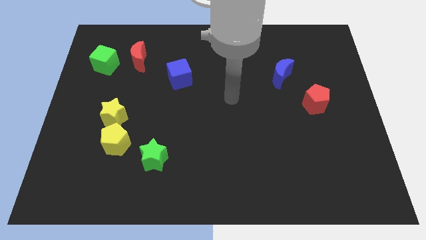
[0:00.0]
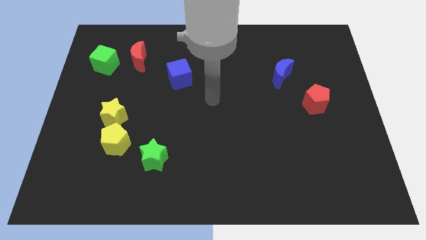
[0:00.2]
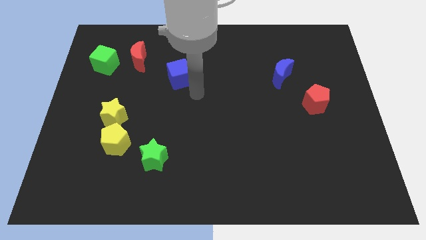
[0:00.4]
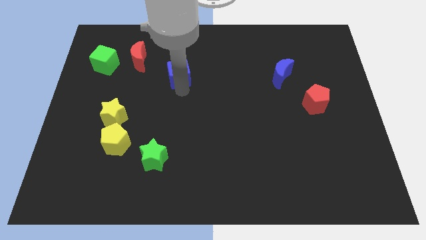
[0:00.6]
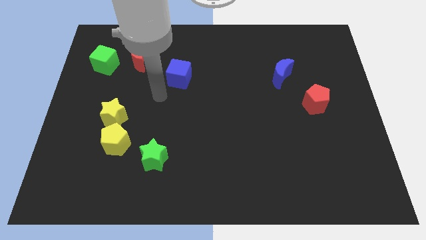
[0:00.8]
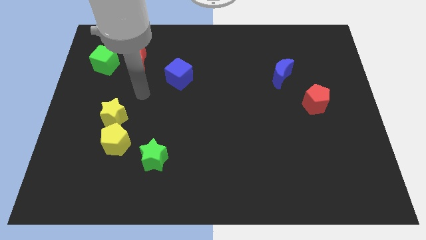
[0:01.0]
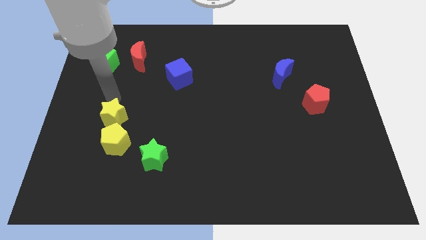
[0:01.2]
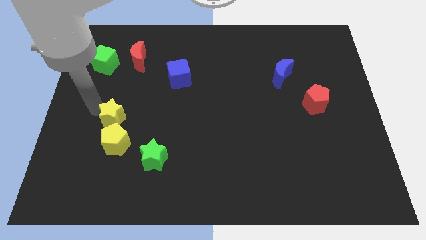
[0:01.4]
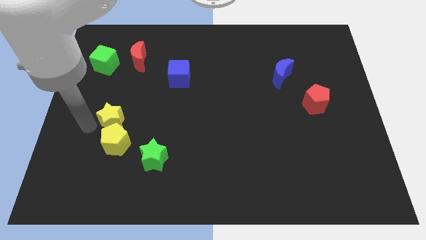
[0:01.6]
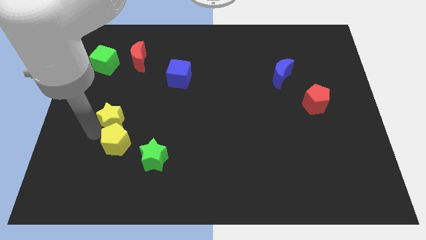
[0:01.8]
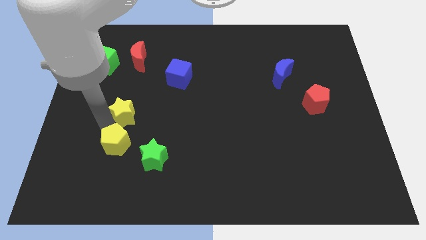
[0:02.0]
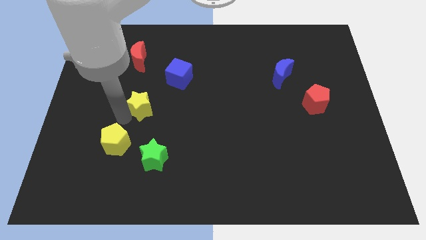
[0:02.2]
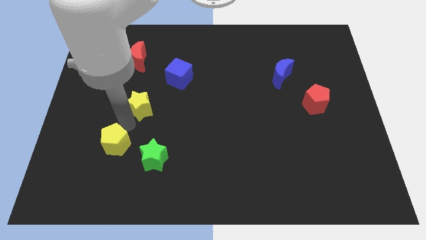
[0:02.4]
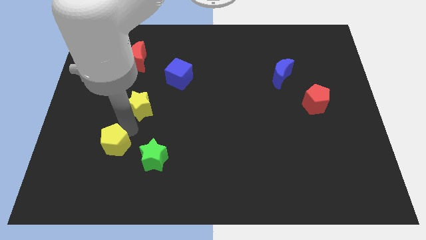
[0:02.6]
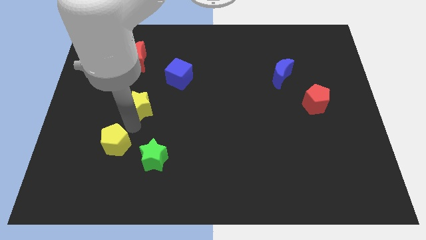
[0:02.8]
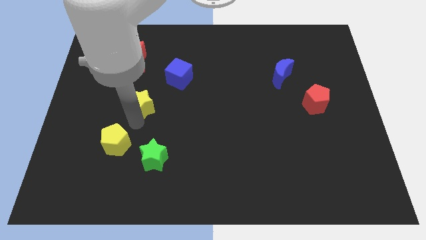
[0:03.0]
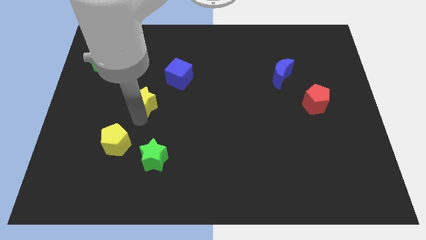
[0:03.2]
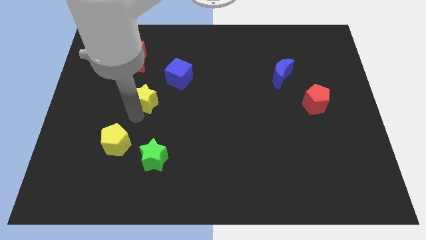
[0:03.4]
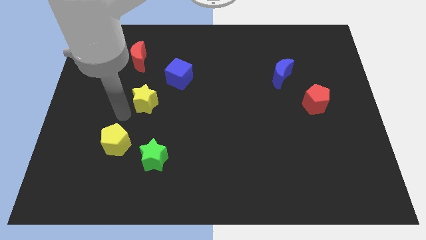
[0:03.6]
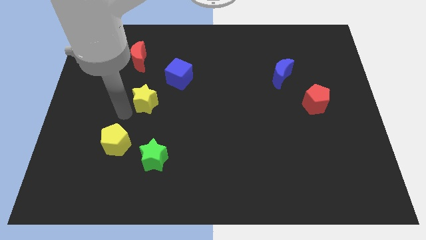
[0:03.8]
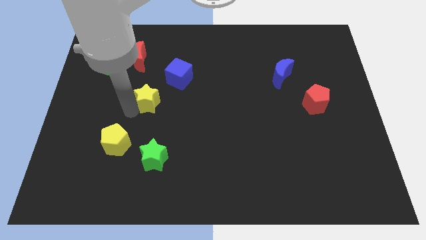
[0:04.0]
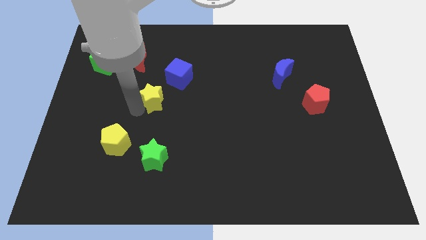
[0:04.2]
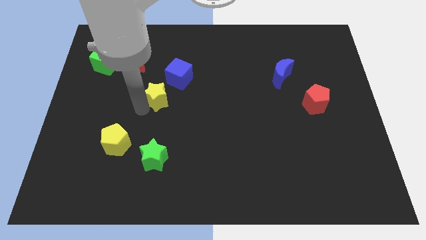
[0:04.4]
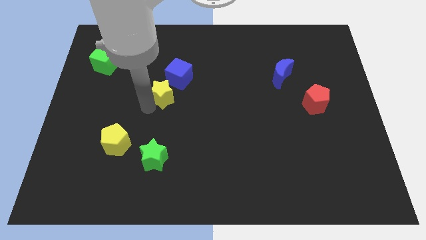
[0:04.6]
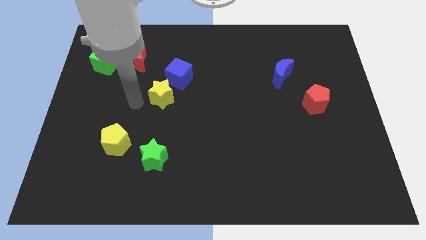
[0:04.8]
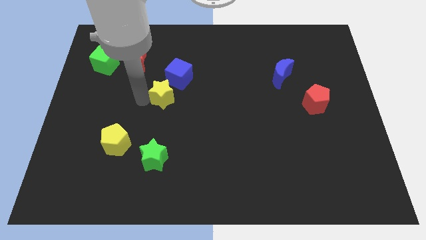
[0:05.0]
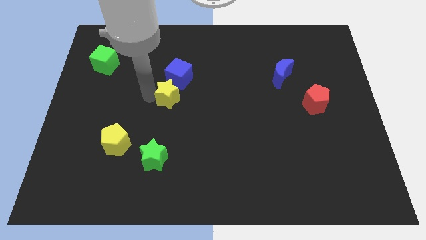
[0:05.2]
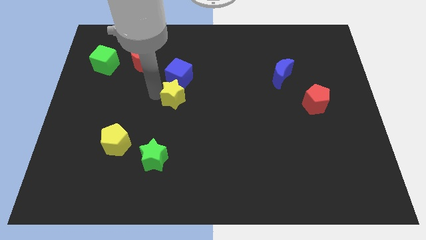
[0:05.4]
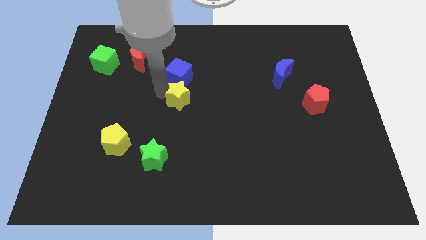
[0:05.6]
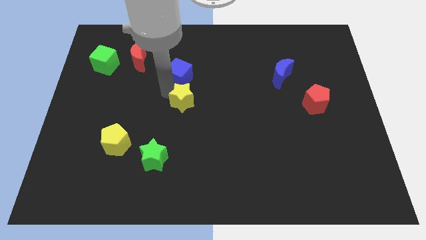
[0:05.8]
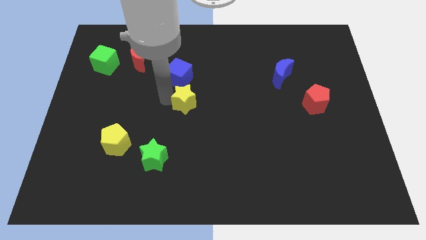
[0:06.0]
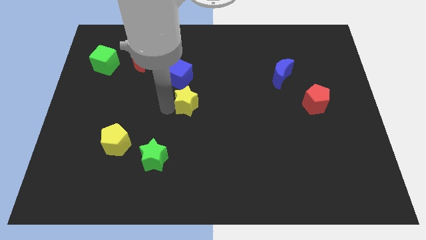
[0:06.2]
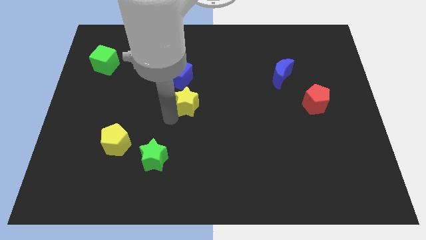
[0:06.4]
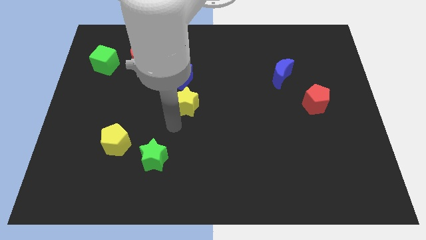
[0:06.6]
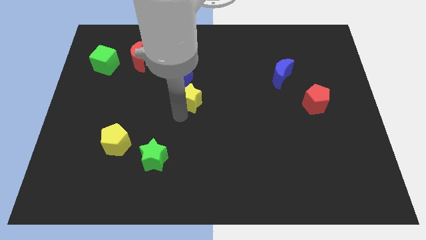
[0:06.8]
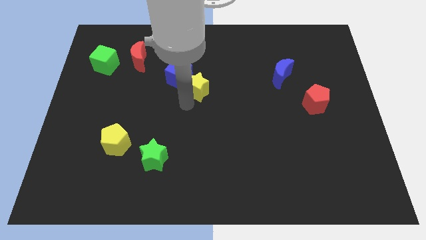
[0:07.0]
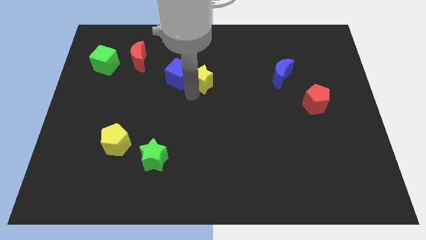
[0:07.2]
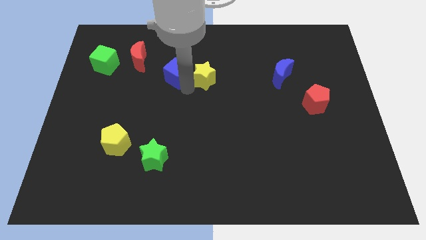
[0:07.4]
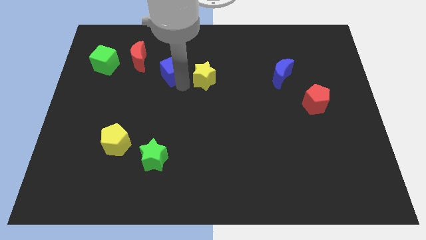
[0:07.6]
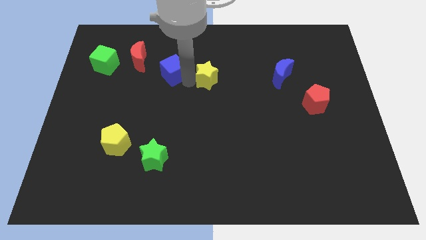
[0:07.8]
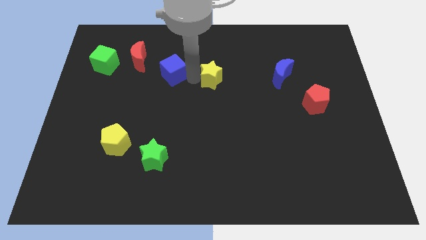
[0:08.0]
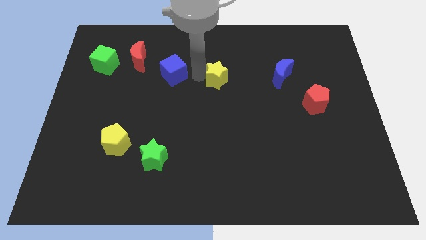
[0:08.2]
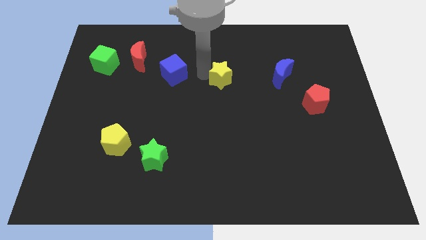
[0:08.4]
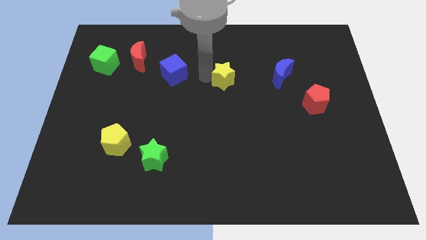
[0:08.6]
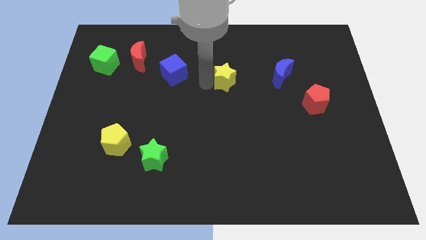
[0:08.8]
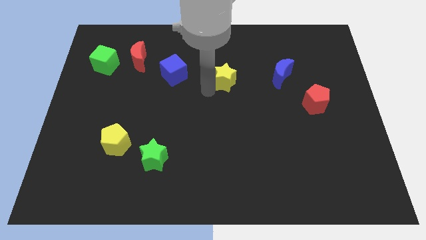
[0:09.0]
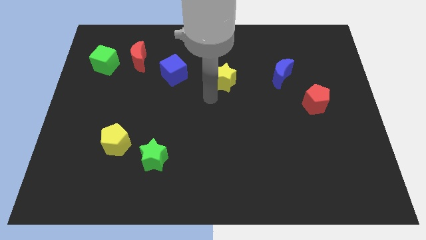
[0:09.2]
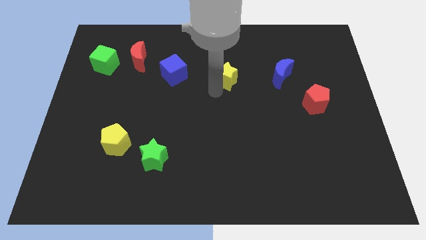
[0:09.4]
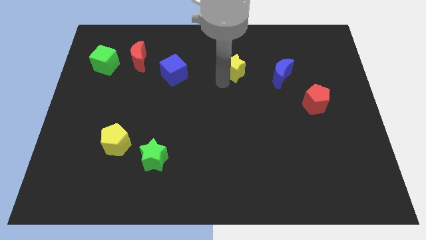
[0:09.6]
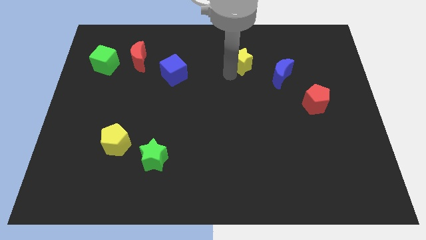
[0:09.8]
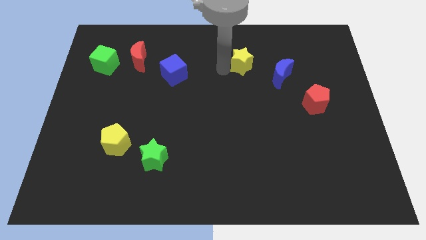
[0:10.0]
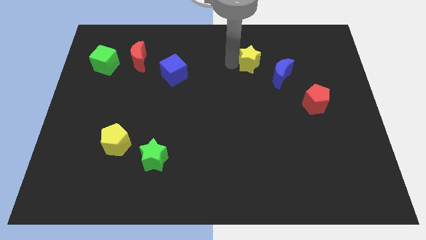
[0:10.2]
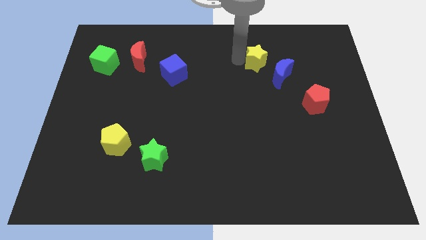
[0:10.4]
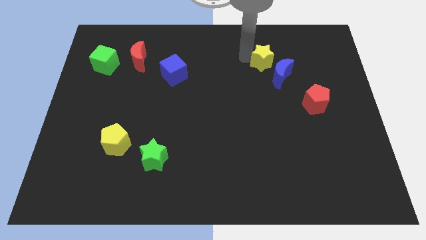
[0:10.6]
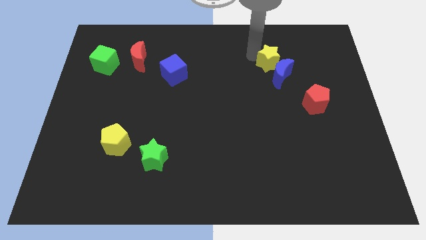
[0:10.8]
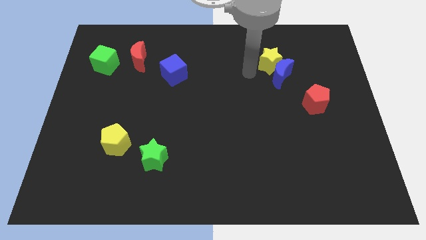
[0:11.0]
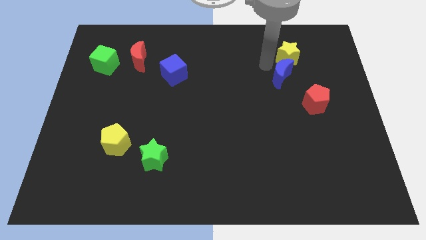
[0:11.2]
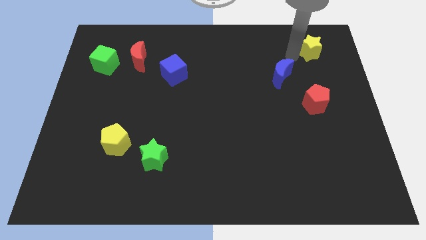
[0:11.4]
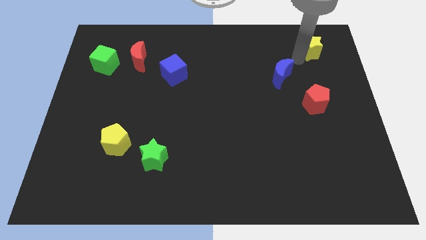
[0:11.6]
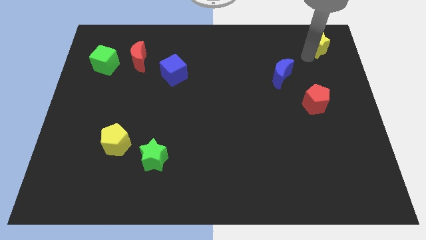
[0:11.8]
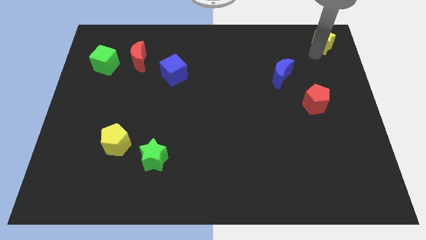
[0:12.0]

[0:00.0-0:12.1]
push the yellow star to the top right
